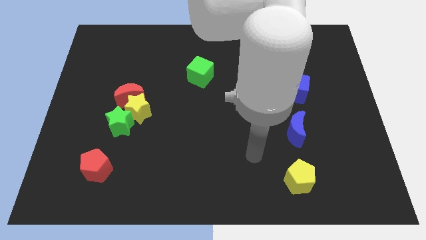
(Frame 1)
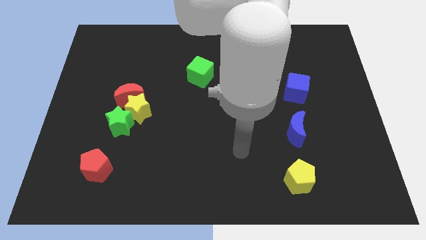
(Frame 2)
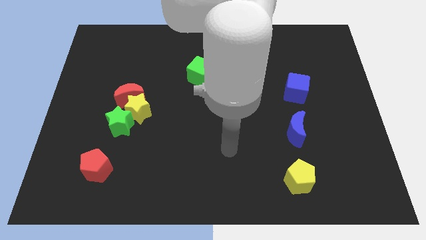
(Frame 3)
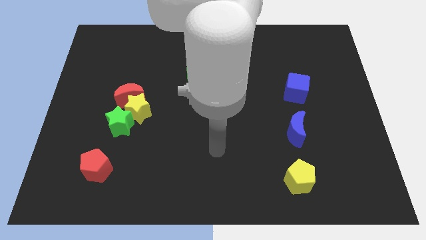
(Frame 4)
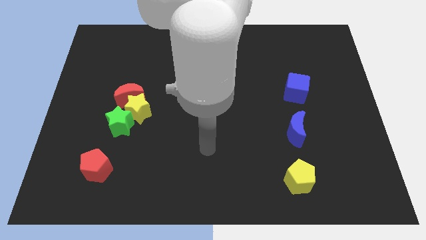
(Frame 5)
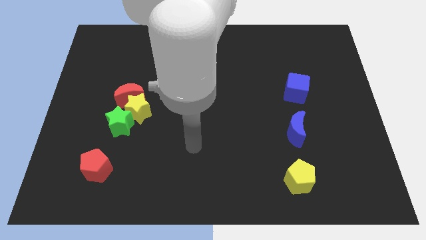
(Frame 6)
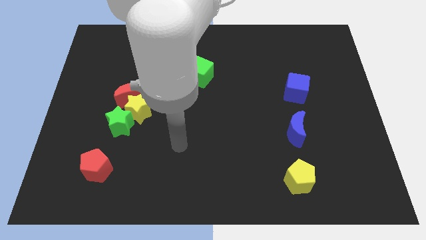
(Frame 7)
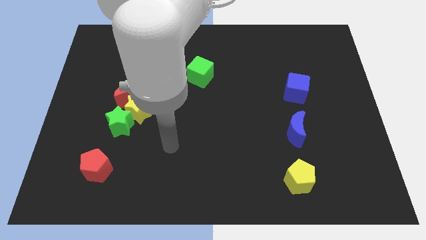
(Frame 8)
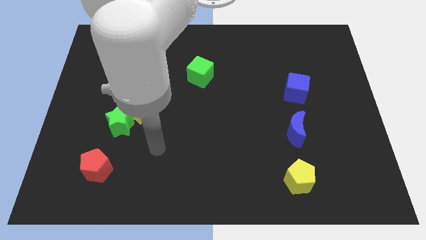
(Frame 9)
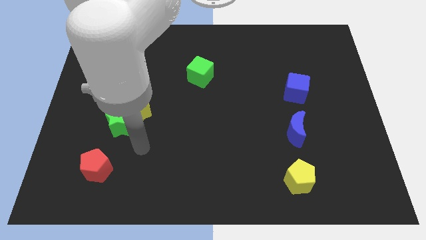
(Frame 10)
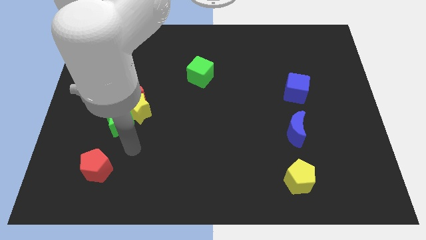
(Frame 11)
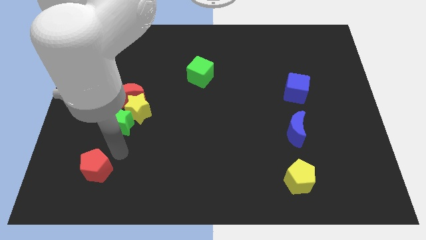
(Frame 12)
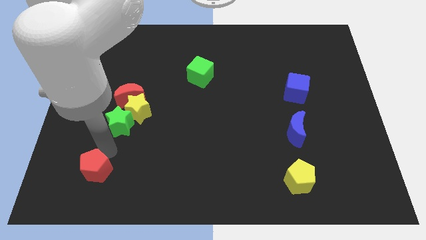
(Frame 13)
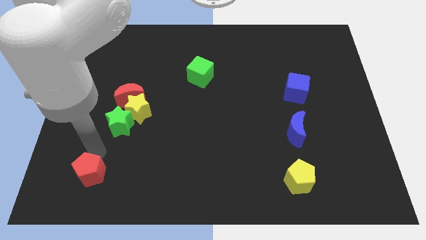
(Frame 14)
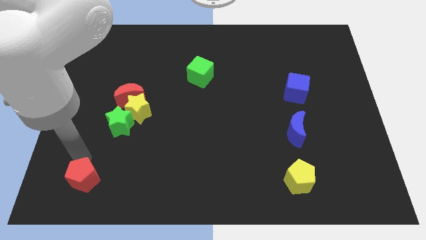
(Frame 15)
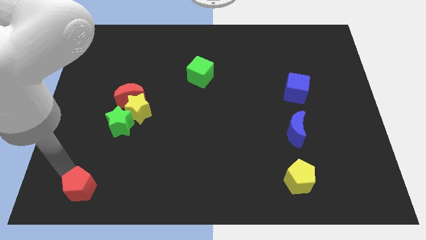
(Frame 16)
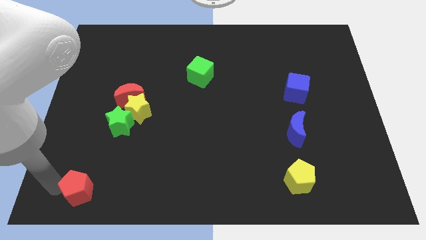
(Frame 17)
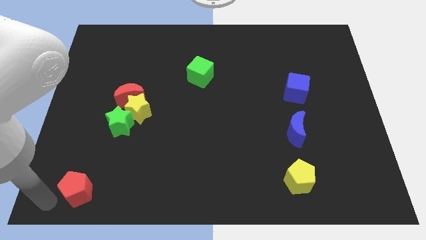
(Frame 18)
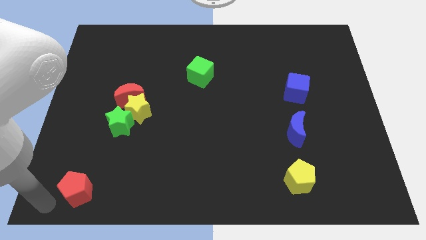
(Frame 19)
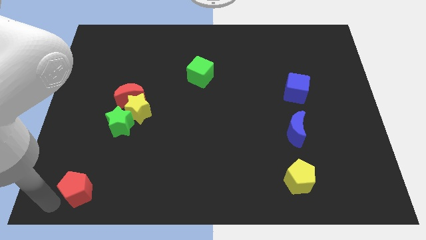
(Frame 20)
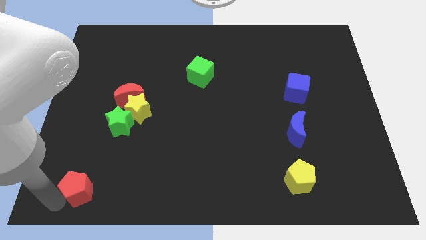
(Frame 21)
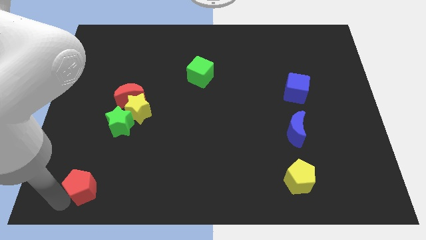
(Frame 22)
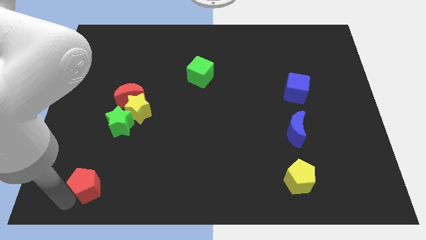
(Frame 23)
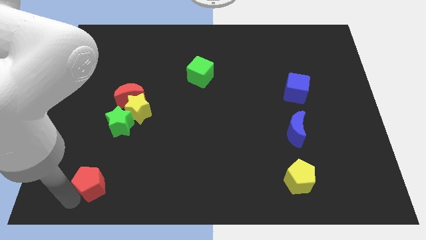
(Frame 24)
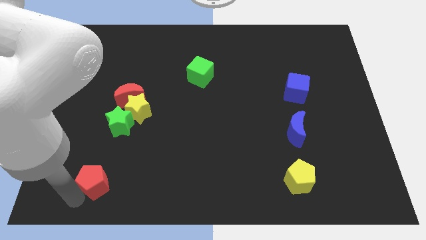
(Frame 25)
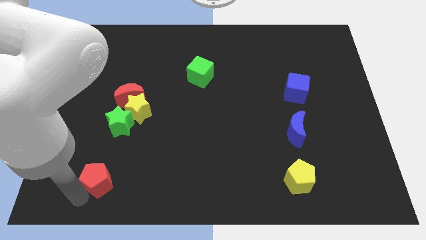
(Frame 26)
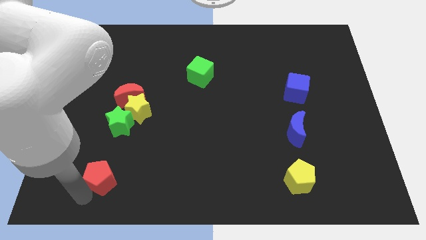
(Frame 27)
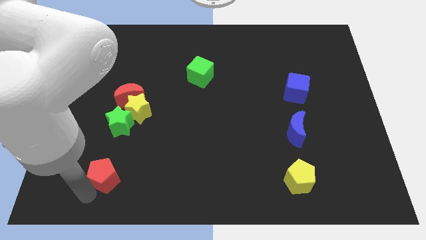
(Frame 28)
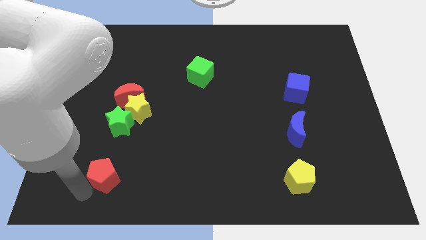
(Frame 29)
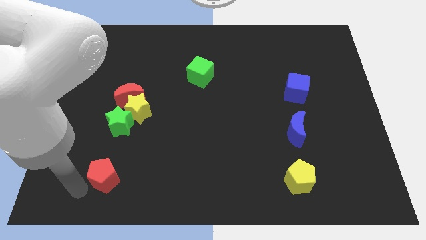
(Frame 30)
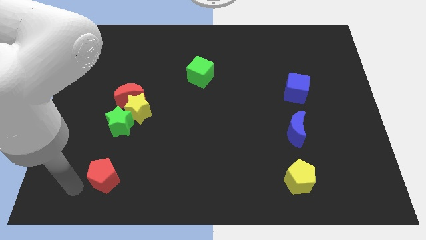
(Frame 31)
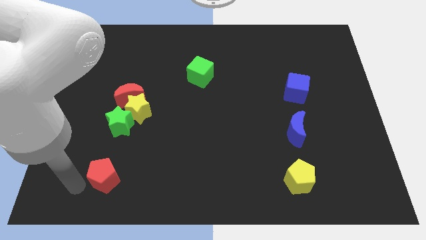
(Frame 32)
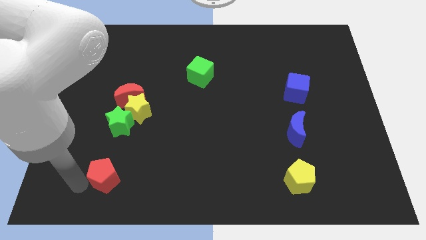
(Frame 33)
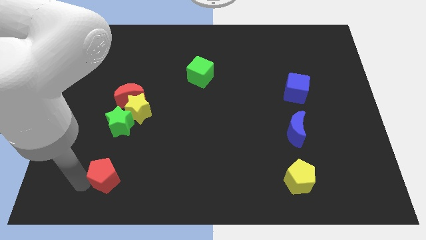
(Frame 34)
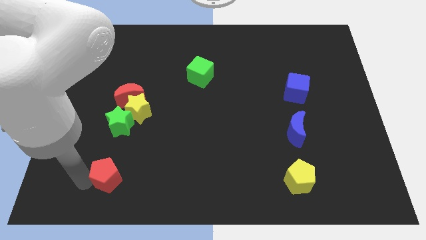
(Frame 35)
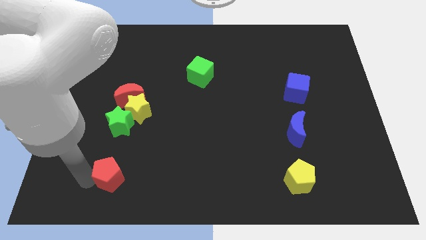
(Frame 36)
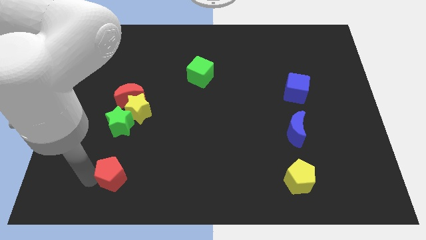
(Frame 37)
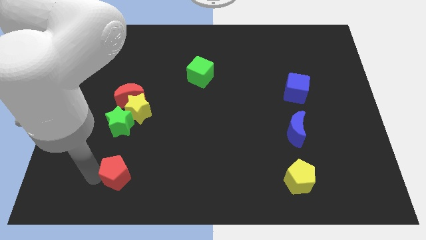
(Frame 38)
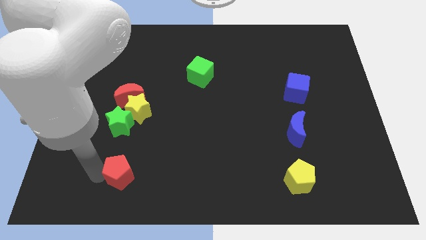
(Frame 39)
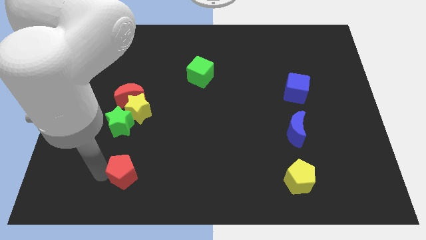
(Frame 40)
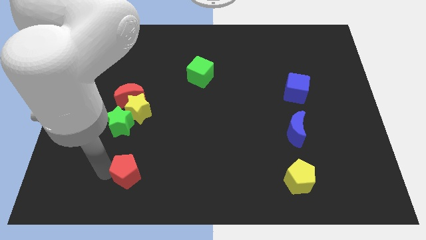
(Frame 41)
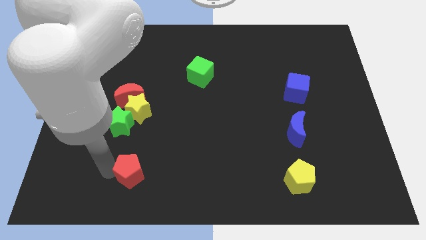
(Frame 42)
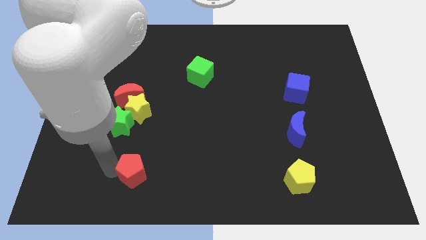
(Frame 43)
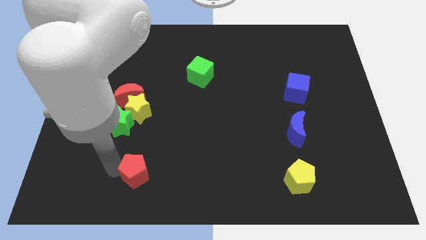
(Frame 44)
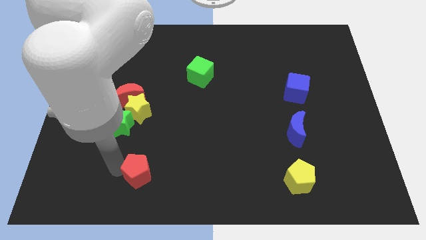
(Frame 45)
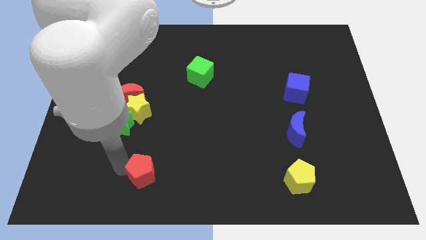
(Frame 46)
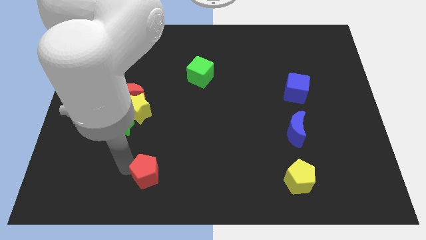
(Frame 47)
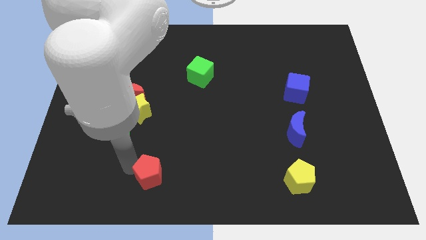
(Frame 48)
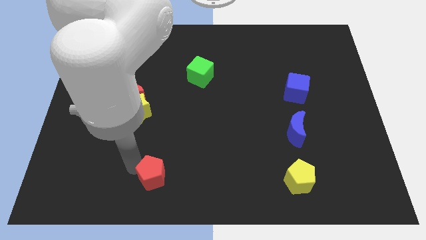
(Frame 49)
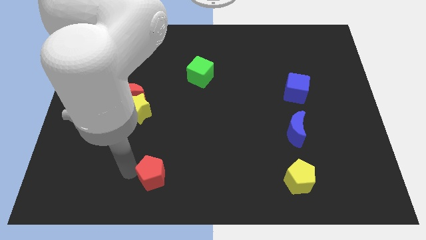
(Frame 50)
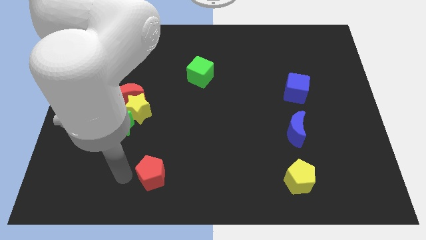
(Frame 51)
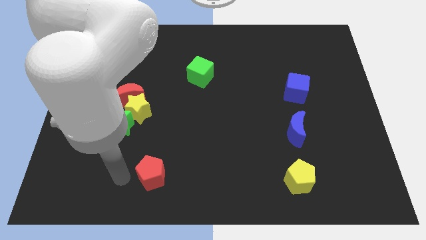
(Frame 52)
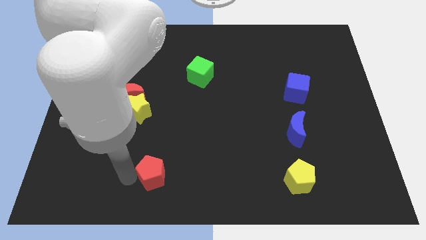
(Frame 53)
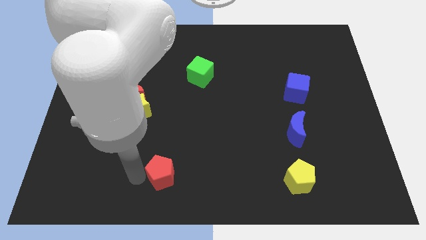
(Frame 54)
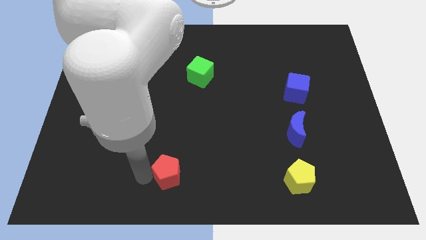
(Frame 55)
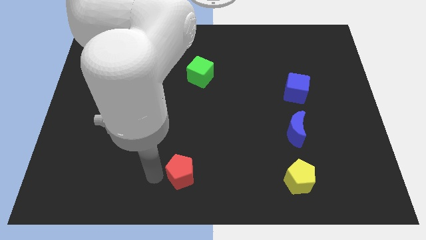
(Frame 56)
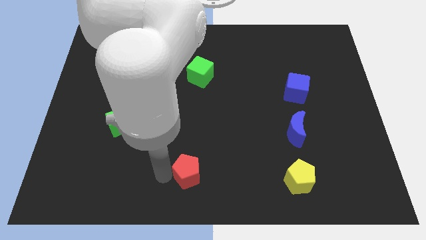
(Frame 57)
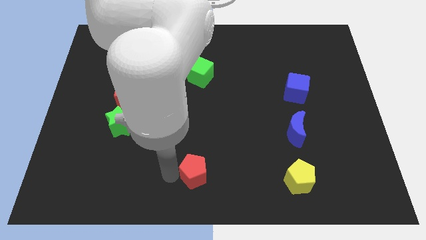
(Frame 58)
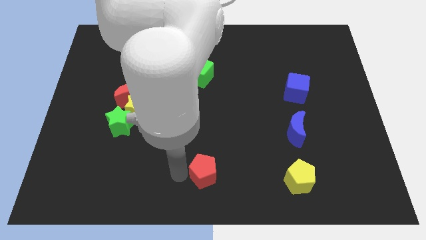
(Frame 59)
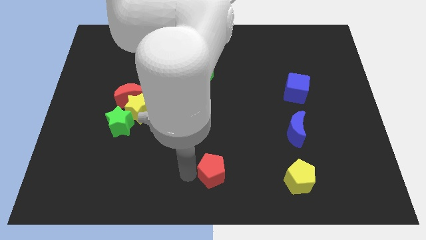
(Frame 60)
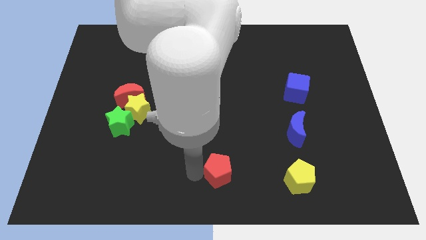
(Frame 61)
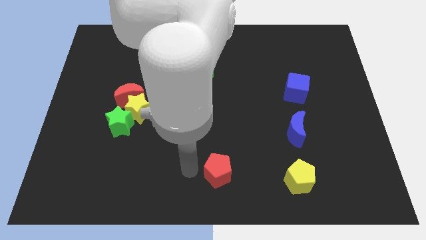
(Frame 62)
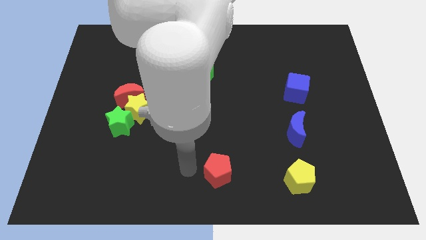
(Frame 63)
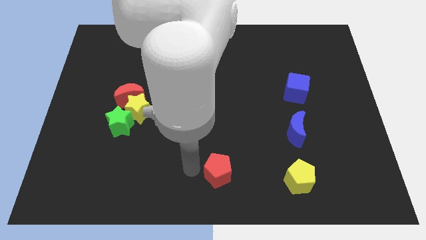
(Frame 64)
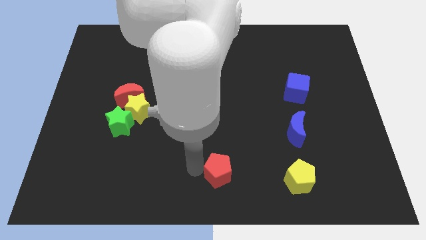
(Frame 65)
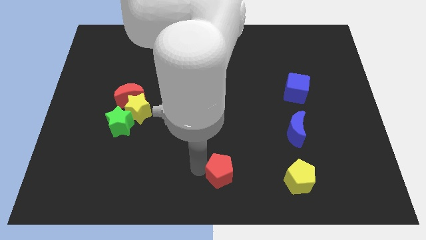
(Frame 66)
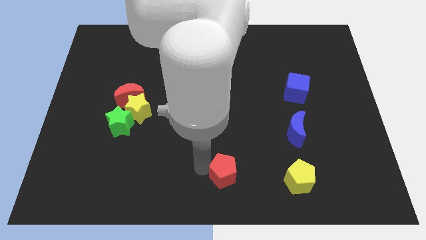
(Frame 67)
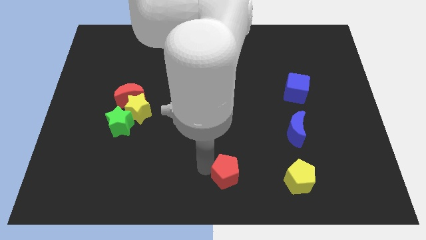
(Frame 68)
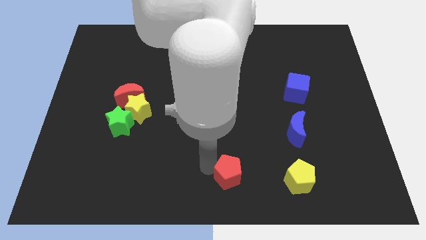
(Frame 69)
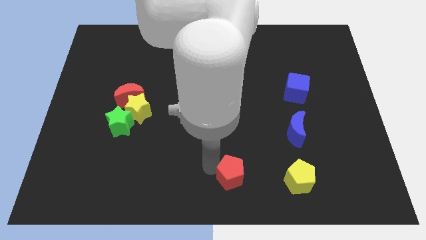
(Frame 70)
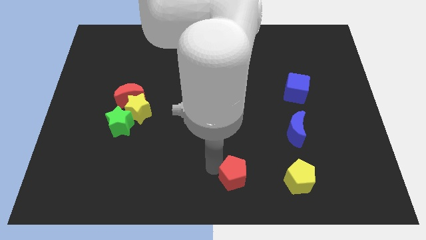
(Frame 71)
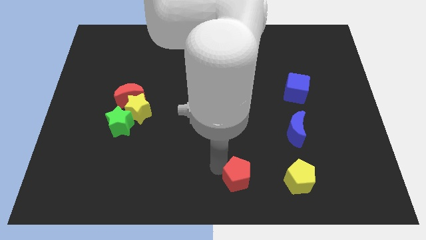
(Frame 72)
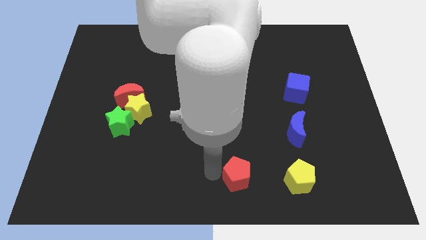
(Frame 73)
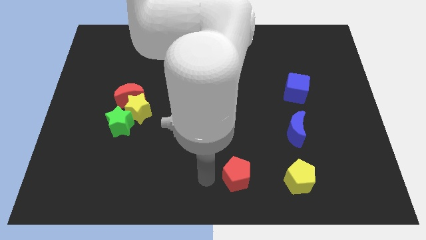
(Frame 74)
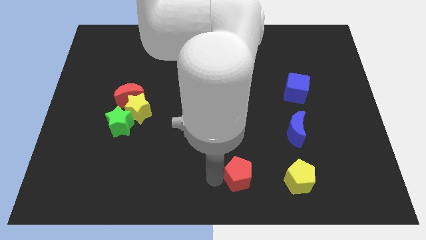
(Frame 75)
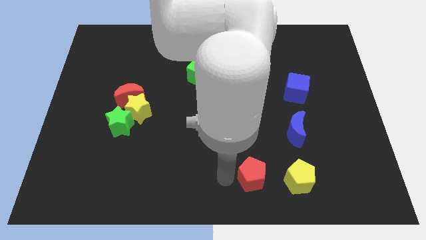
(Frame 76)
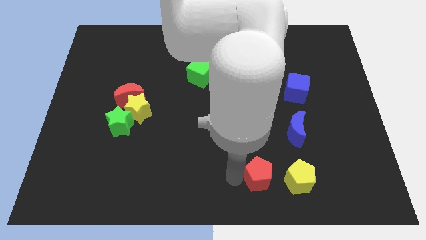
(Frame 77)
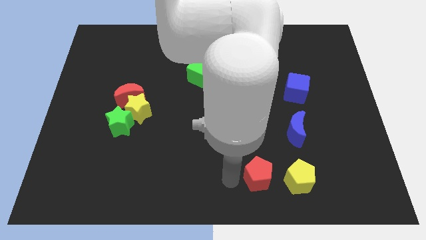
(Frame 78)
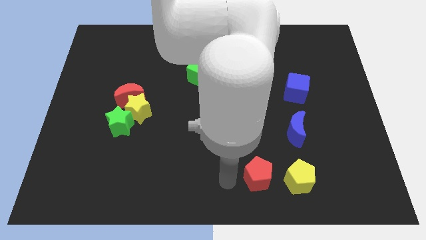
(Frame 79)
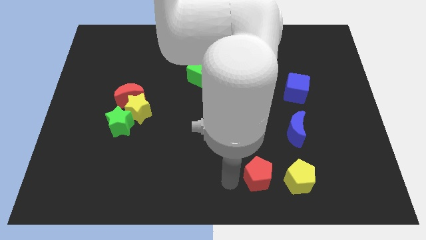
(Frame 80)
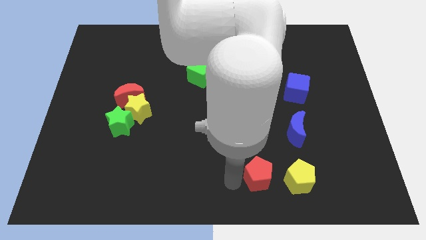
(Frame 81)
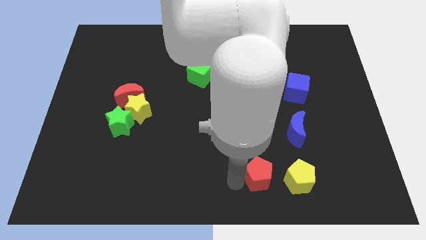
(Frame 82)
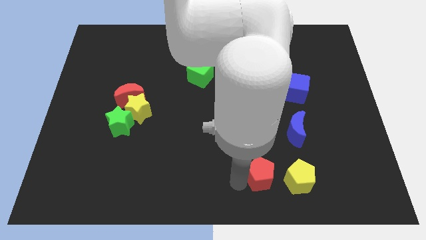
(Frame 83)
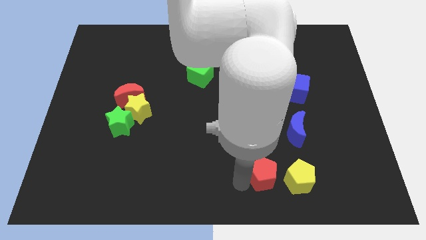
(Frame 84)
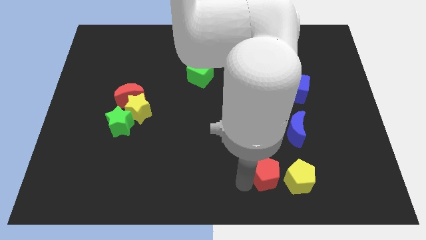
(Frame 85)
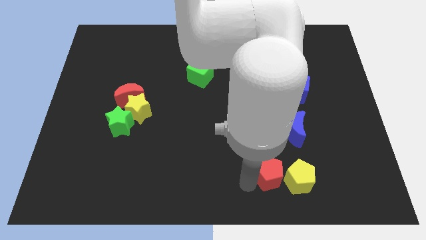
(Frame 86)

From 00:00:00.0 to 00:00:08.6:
push the red pentagon close to the yellow pentagon
